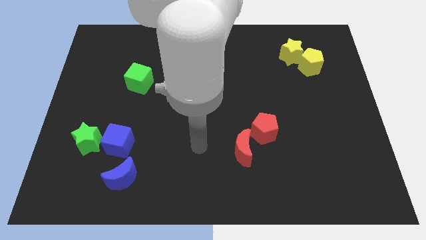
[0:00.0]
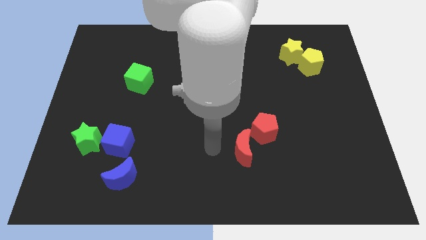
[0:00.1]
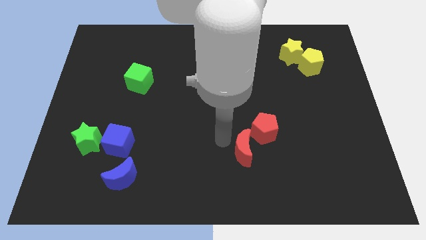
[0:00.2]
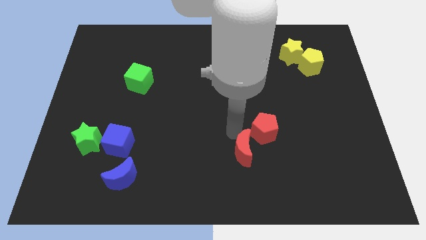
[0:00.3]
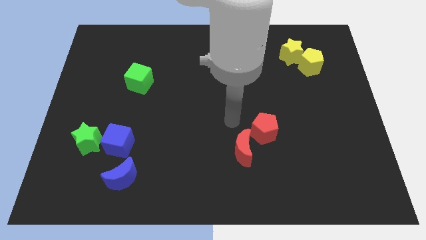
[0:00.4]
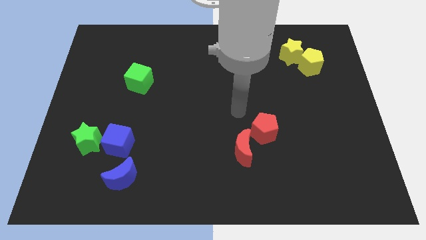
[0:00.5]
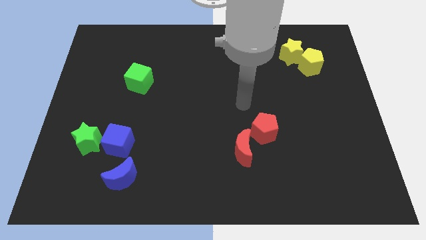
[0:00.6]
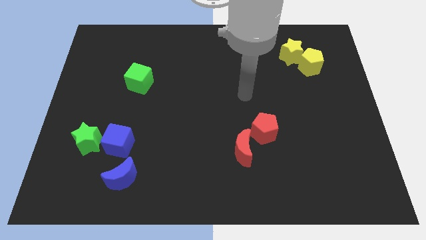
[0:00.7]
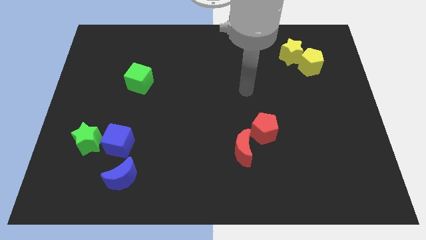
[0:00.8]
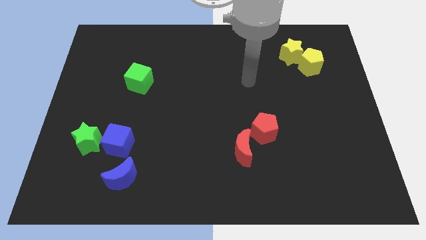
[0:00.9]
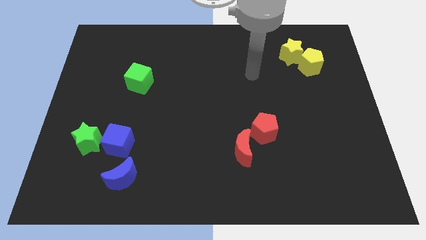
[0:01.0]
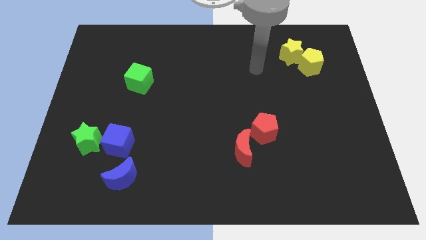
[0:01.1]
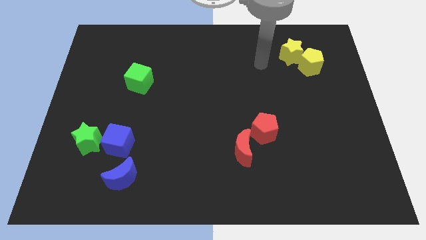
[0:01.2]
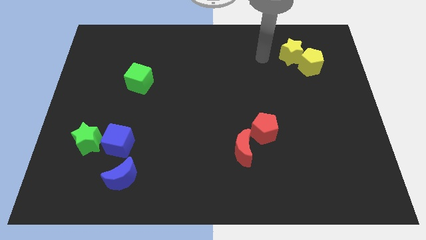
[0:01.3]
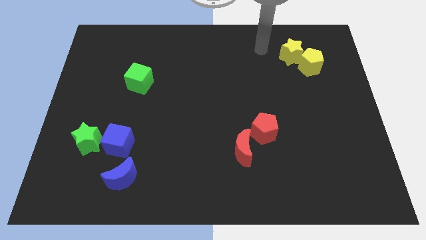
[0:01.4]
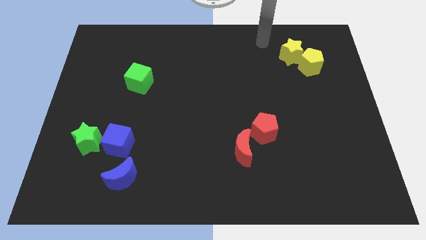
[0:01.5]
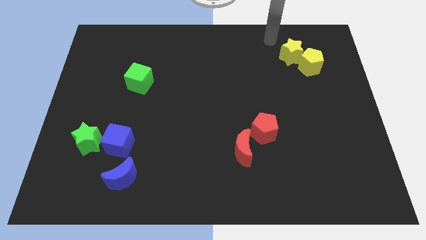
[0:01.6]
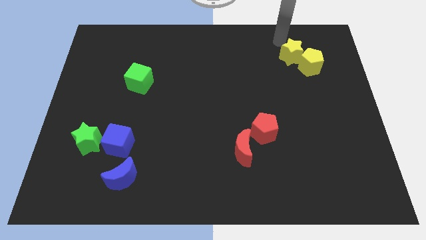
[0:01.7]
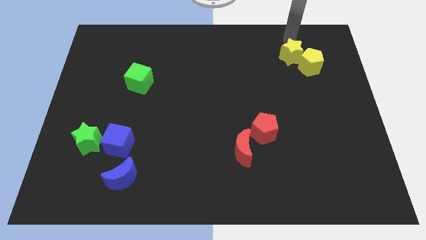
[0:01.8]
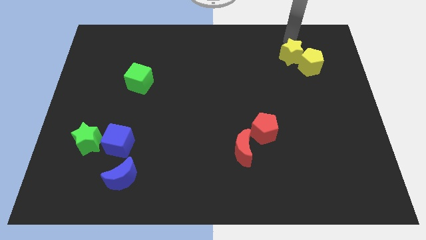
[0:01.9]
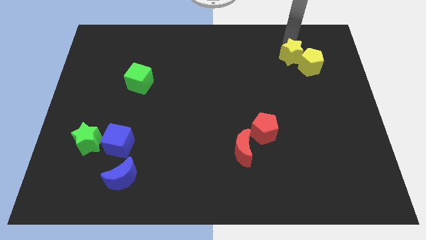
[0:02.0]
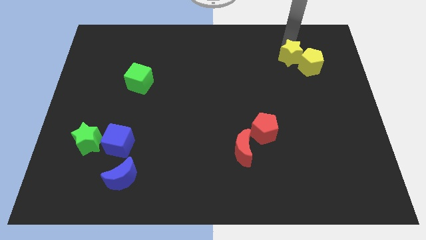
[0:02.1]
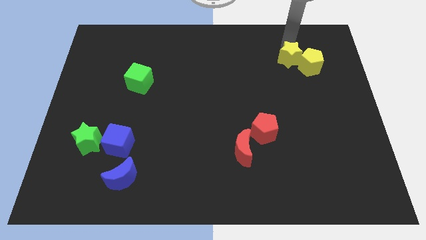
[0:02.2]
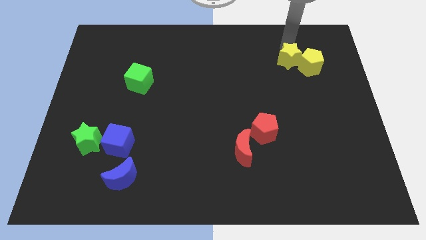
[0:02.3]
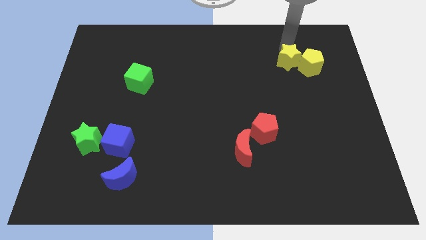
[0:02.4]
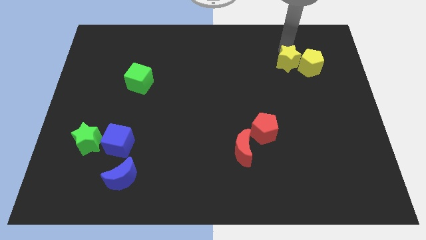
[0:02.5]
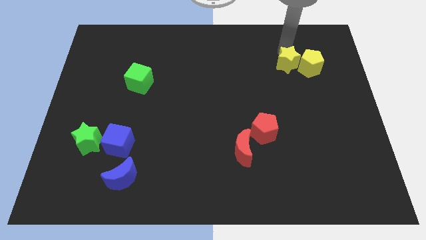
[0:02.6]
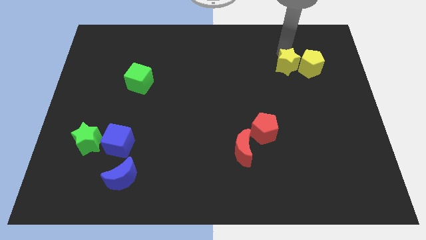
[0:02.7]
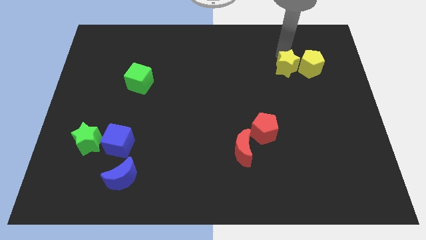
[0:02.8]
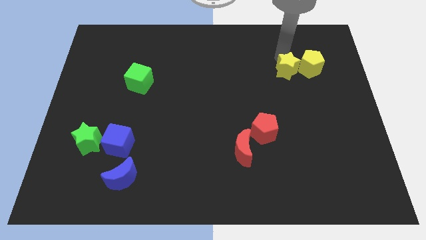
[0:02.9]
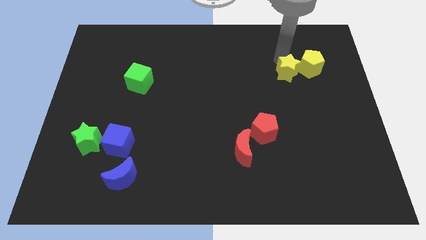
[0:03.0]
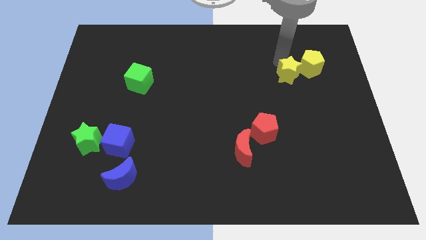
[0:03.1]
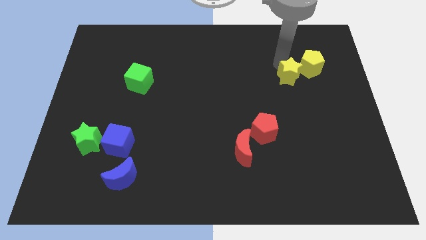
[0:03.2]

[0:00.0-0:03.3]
slide the yellow star down somewhat

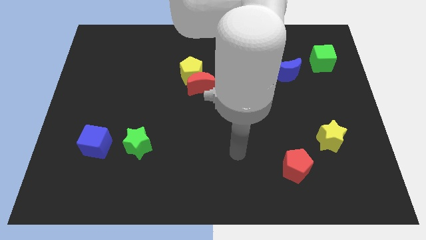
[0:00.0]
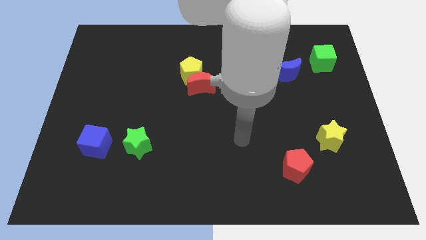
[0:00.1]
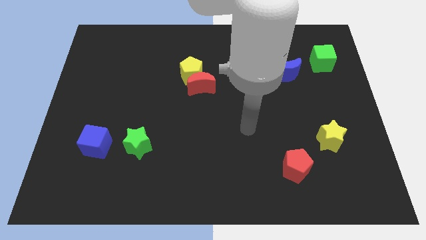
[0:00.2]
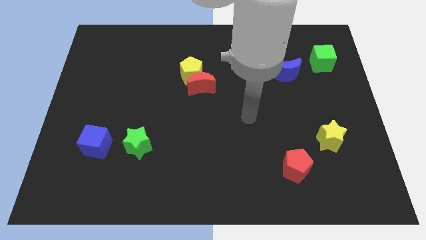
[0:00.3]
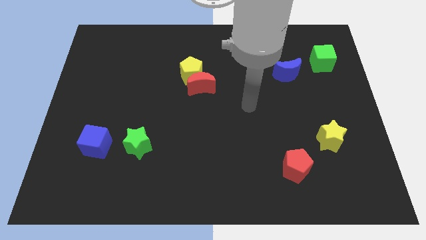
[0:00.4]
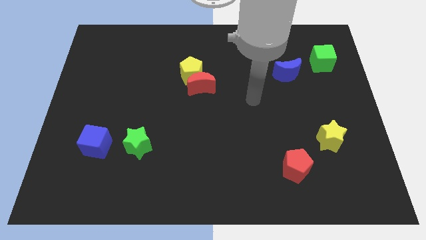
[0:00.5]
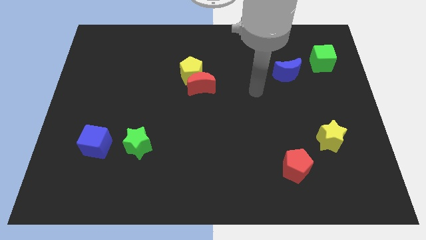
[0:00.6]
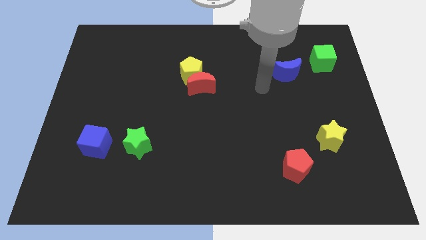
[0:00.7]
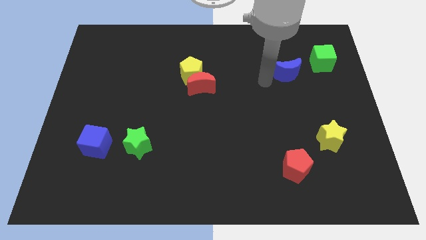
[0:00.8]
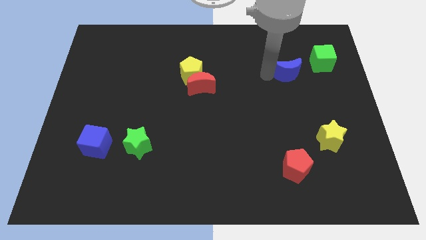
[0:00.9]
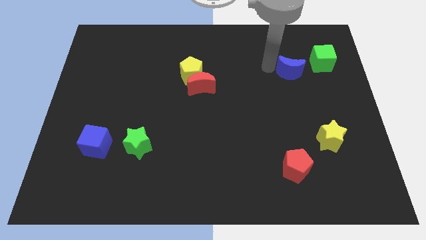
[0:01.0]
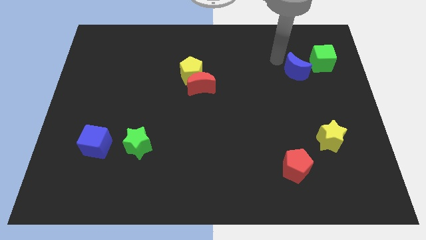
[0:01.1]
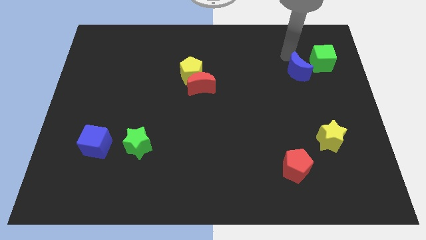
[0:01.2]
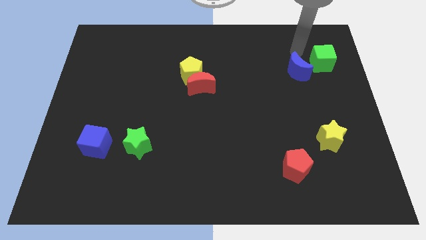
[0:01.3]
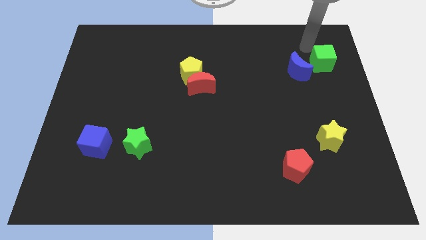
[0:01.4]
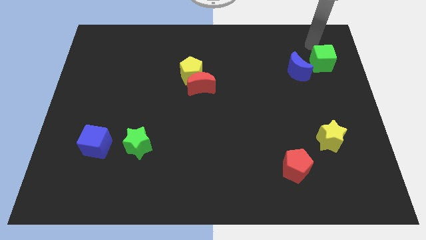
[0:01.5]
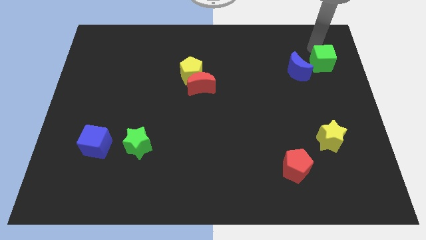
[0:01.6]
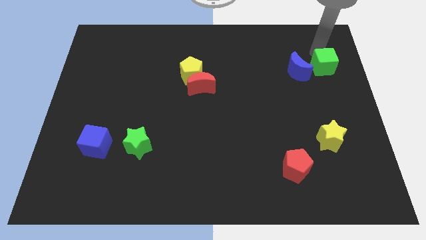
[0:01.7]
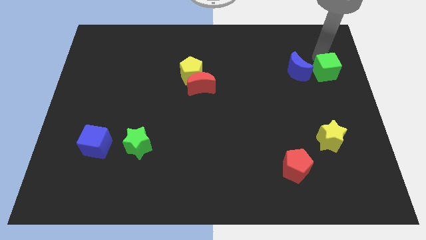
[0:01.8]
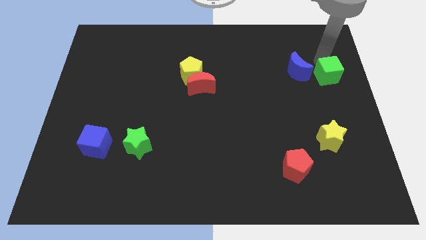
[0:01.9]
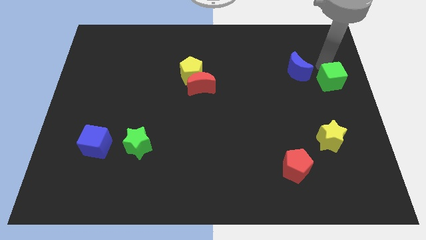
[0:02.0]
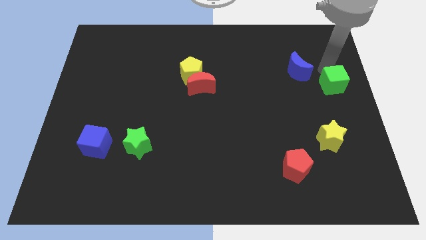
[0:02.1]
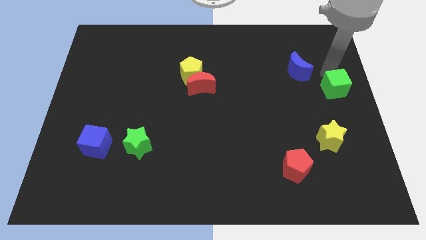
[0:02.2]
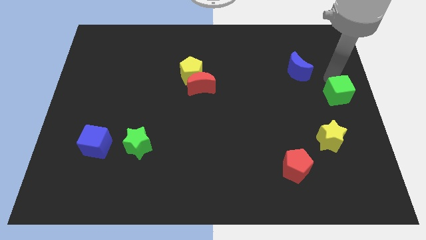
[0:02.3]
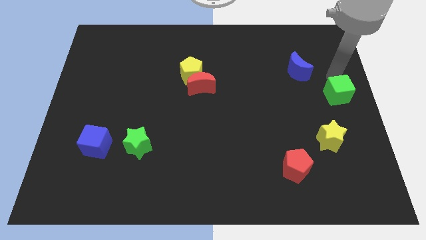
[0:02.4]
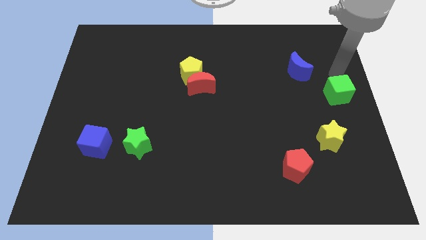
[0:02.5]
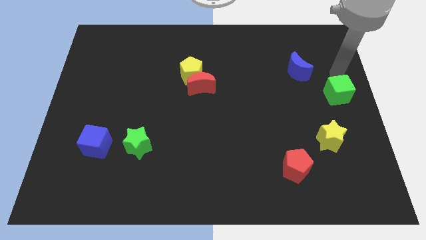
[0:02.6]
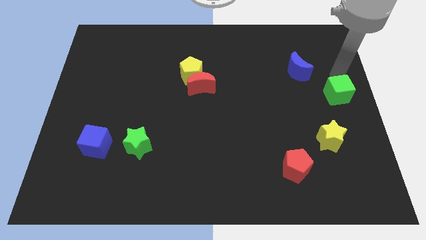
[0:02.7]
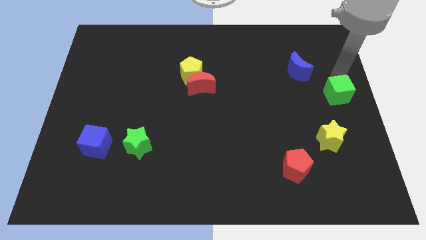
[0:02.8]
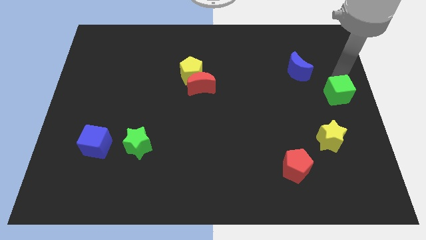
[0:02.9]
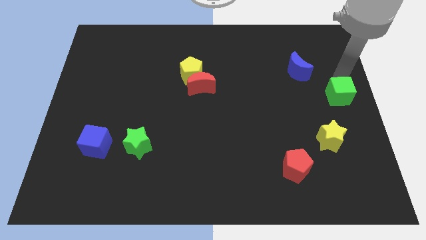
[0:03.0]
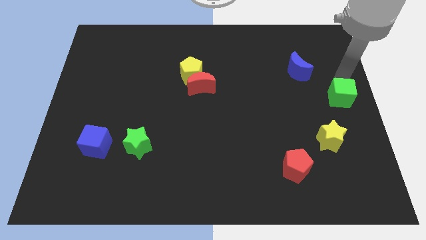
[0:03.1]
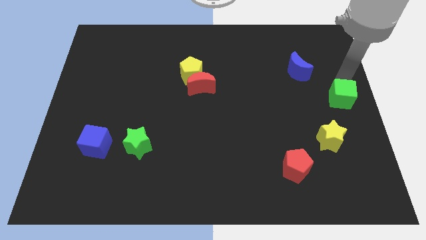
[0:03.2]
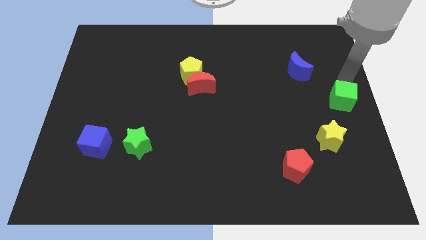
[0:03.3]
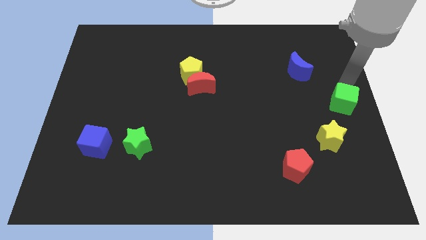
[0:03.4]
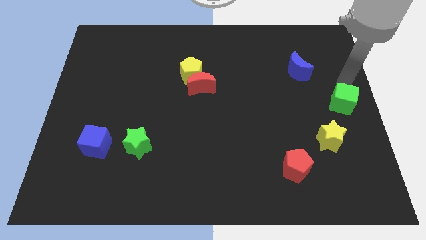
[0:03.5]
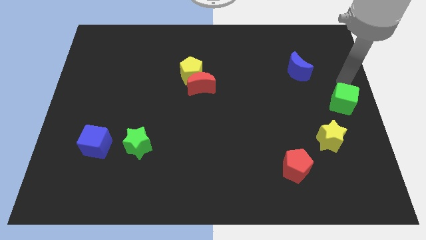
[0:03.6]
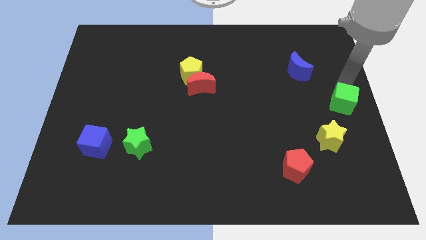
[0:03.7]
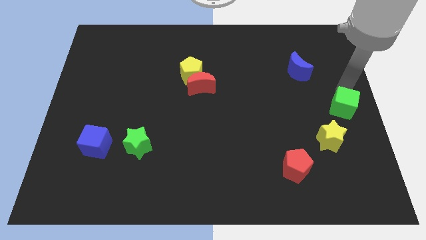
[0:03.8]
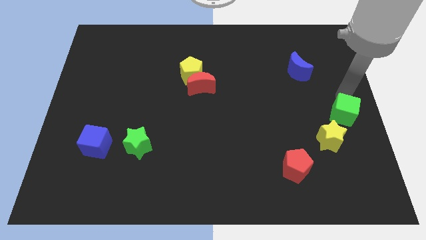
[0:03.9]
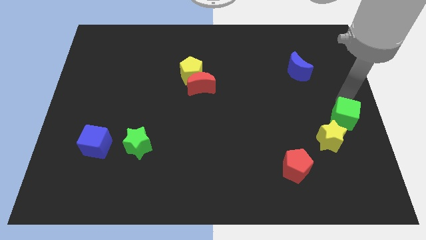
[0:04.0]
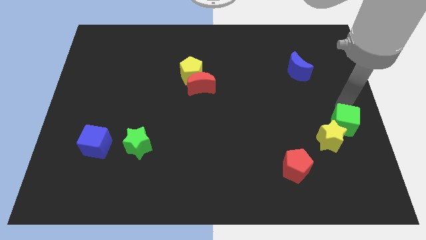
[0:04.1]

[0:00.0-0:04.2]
move the green cube downwards
